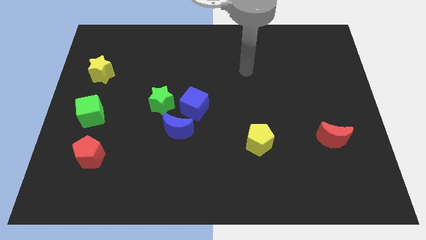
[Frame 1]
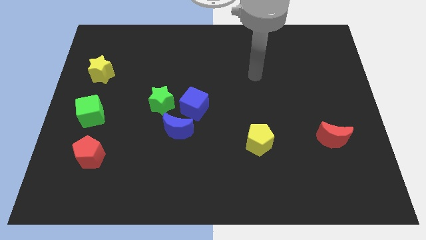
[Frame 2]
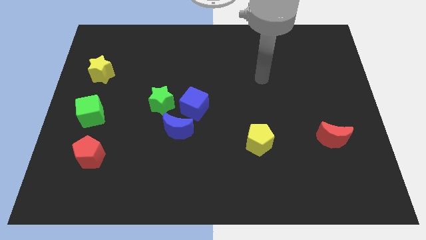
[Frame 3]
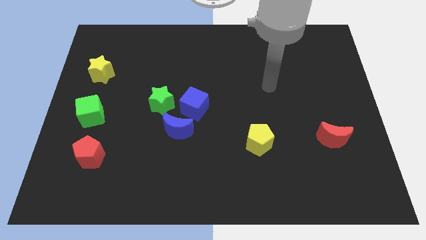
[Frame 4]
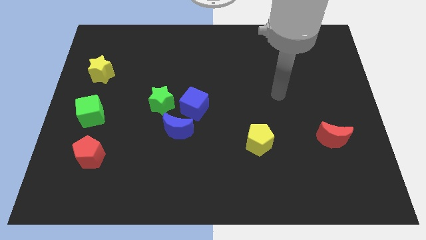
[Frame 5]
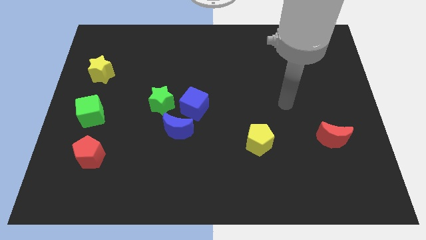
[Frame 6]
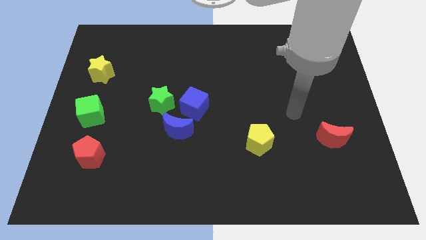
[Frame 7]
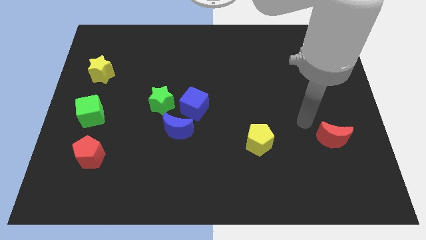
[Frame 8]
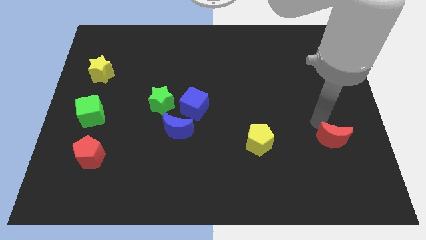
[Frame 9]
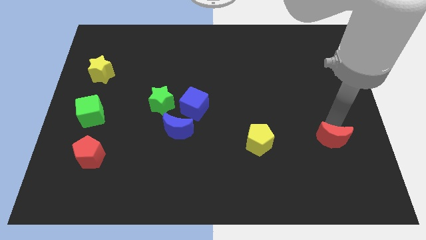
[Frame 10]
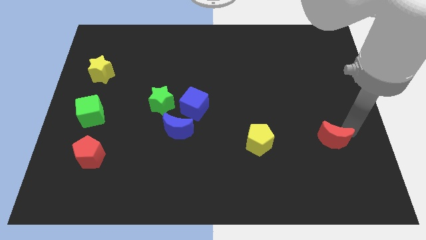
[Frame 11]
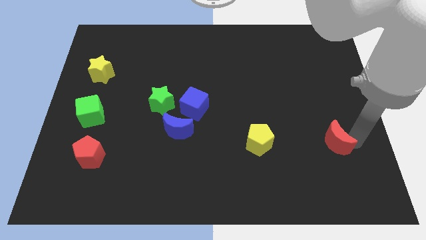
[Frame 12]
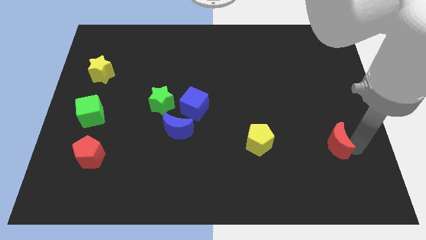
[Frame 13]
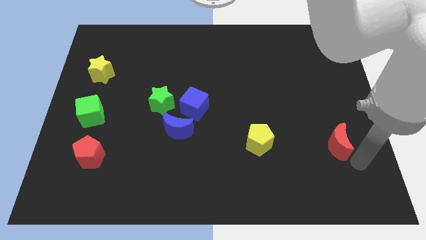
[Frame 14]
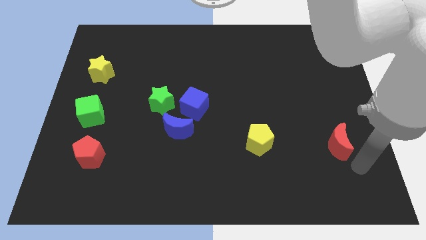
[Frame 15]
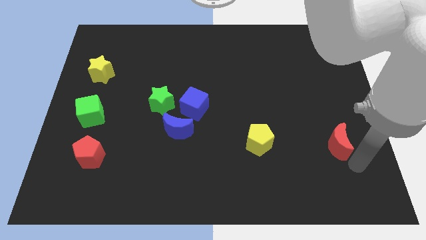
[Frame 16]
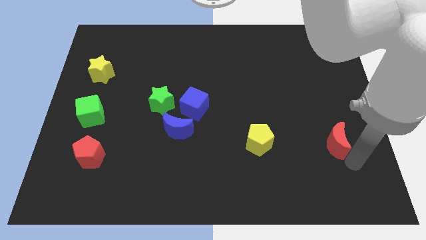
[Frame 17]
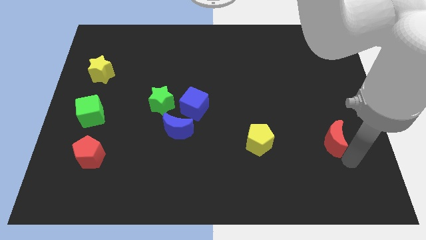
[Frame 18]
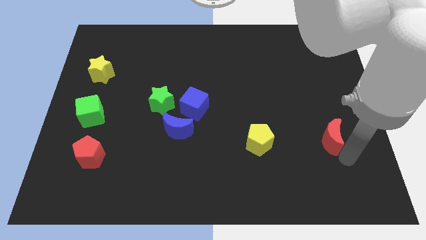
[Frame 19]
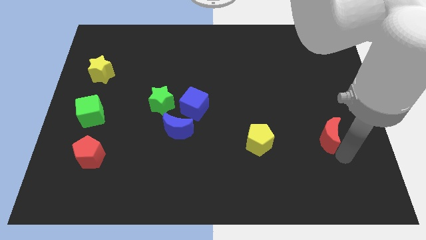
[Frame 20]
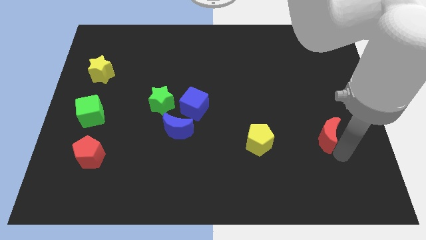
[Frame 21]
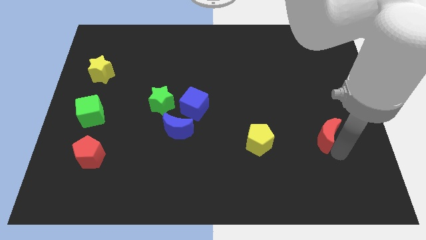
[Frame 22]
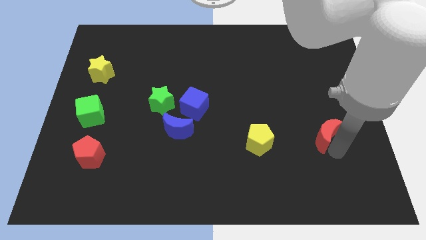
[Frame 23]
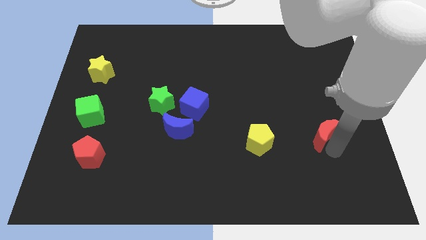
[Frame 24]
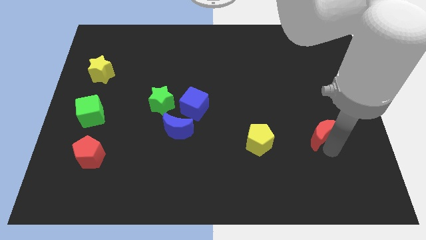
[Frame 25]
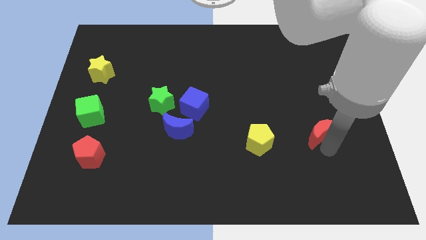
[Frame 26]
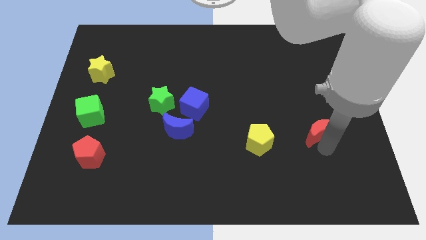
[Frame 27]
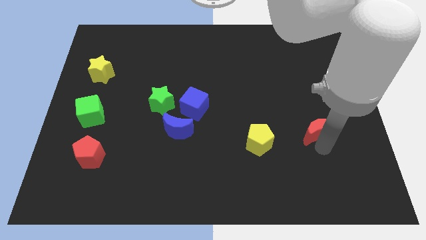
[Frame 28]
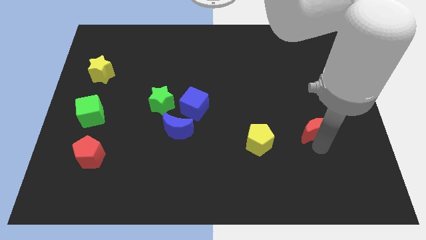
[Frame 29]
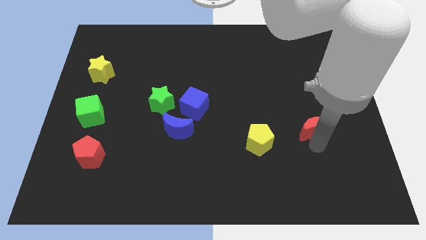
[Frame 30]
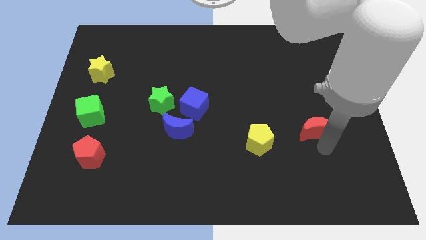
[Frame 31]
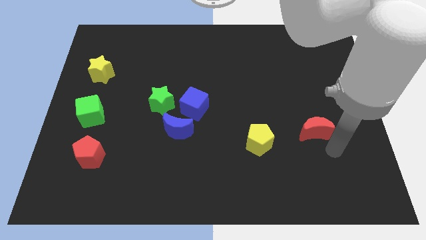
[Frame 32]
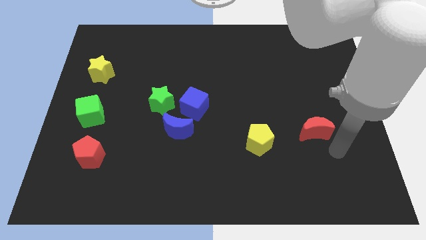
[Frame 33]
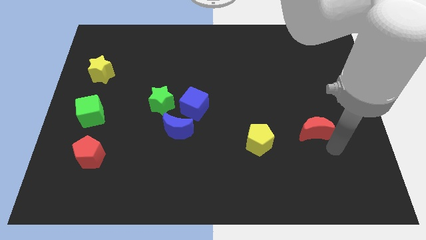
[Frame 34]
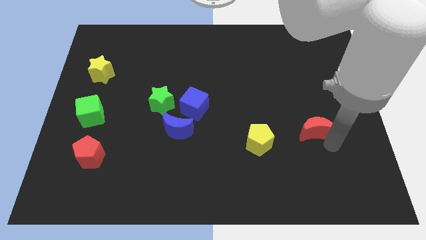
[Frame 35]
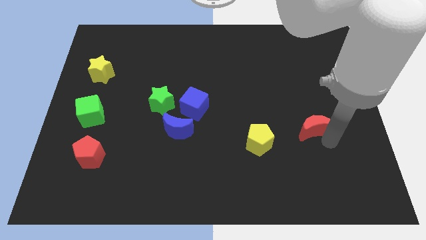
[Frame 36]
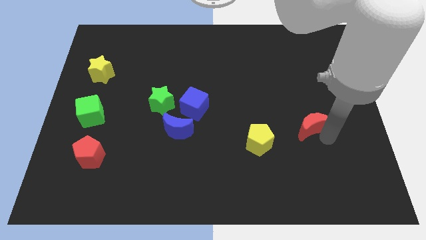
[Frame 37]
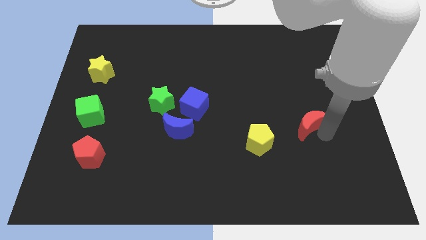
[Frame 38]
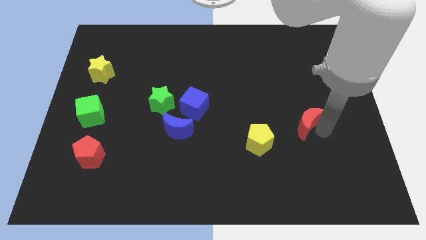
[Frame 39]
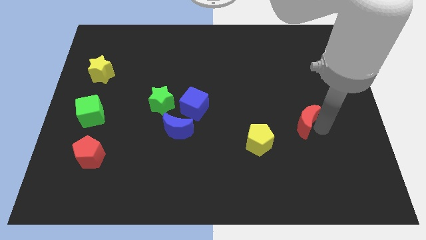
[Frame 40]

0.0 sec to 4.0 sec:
slide the red moon upwards and left diagonally a little bit

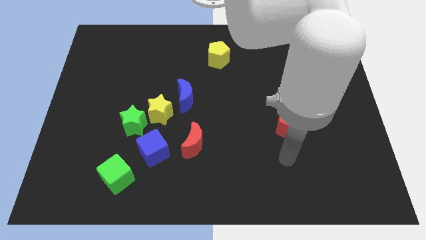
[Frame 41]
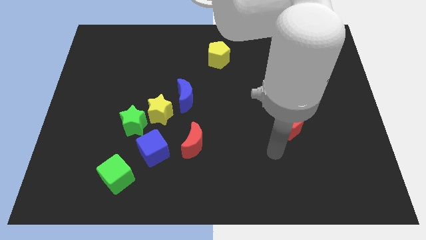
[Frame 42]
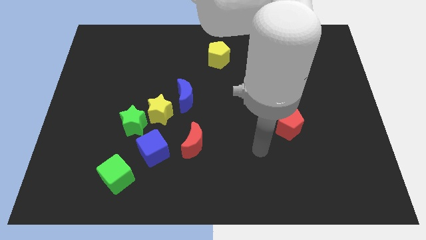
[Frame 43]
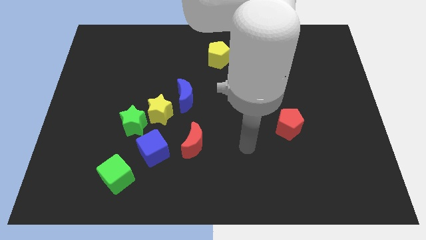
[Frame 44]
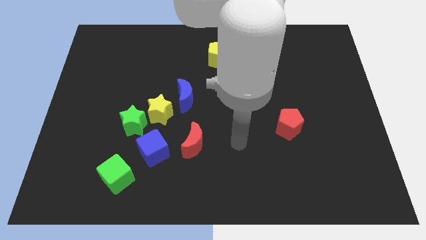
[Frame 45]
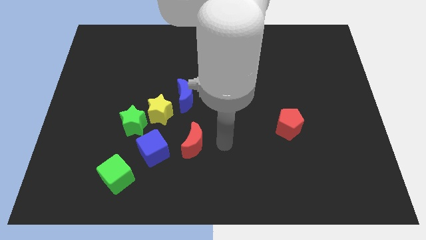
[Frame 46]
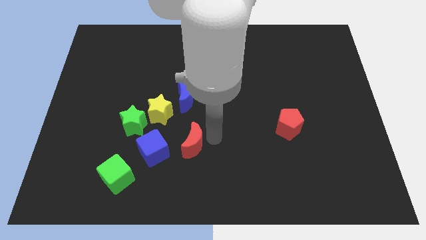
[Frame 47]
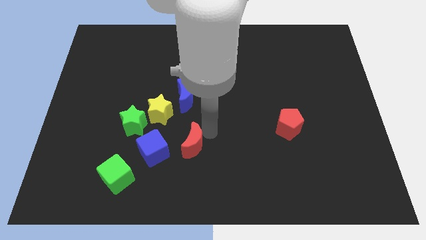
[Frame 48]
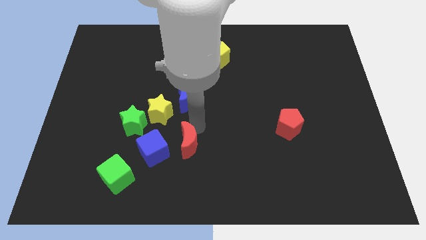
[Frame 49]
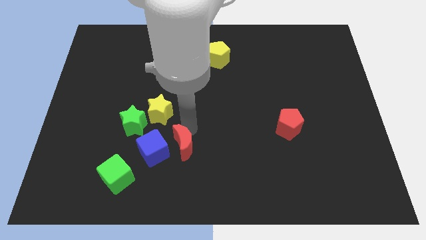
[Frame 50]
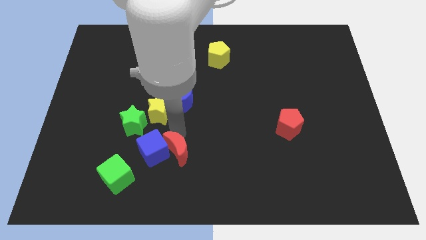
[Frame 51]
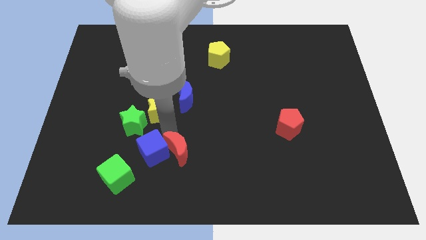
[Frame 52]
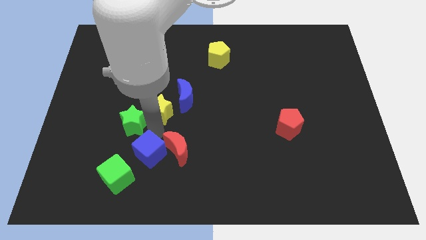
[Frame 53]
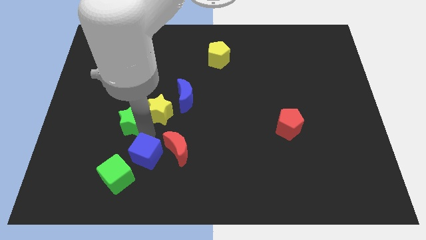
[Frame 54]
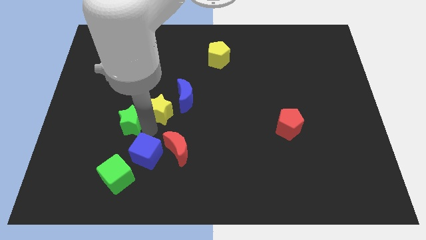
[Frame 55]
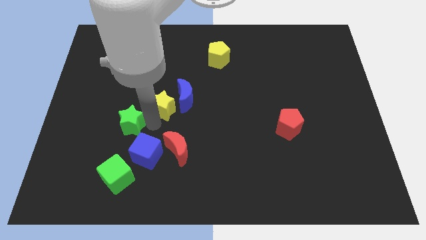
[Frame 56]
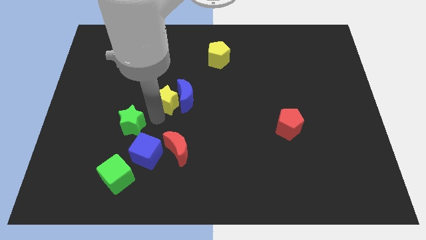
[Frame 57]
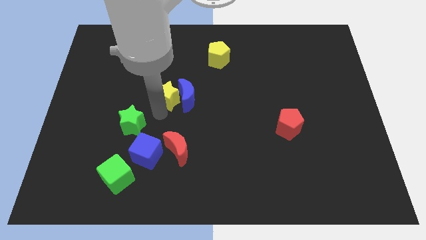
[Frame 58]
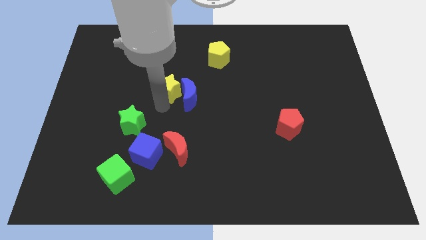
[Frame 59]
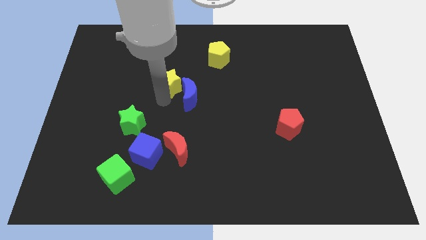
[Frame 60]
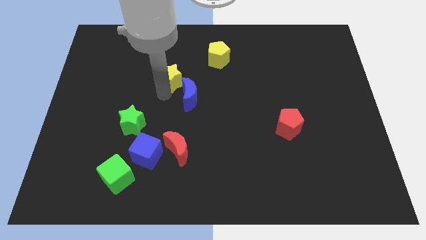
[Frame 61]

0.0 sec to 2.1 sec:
move the yellow star a little bit diagonally upwards and right

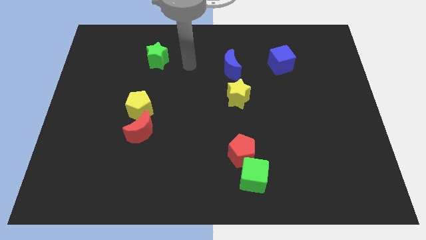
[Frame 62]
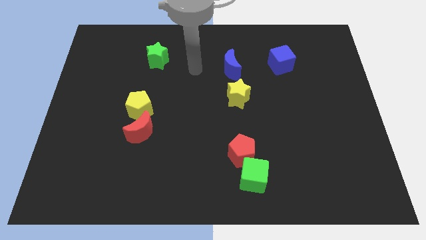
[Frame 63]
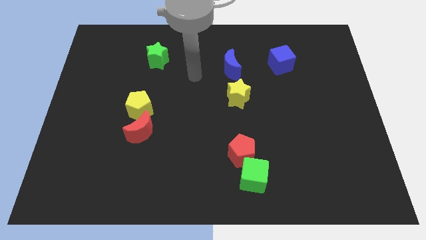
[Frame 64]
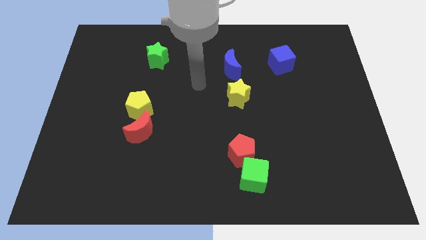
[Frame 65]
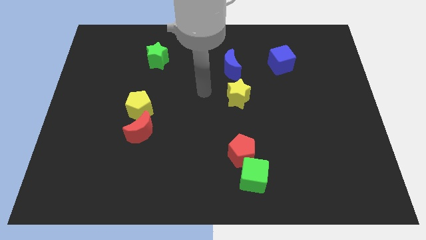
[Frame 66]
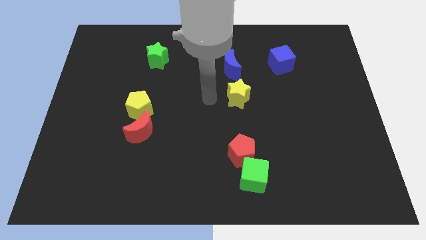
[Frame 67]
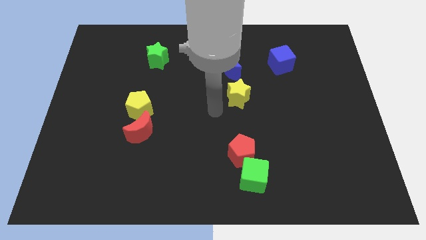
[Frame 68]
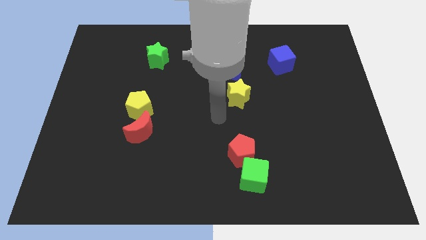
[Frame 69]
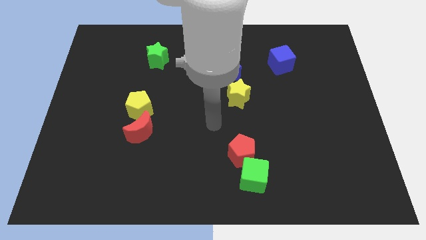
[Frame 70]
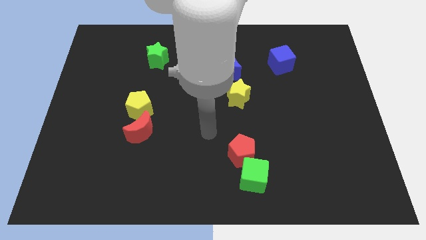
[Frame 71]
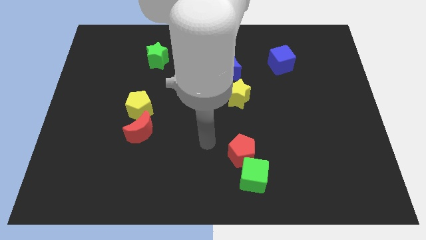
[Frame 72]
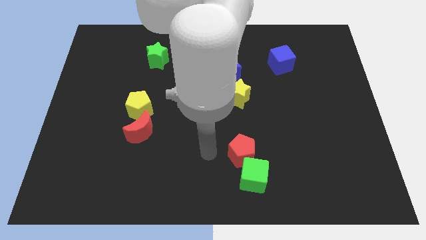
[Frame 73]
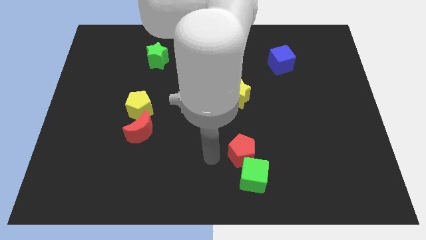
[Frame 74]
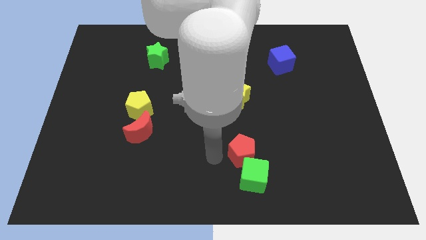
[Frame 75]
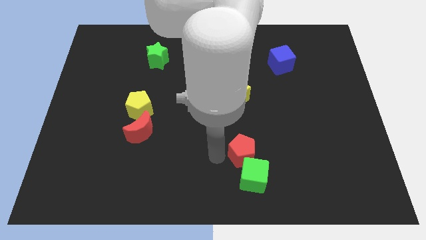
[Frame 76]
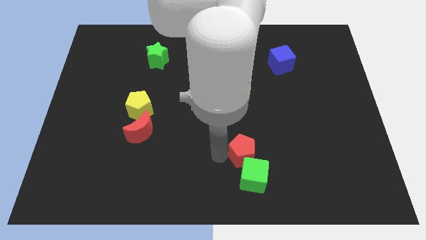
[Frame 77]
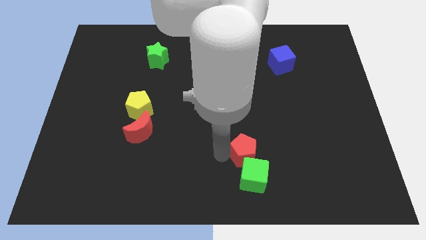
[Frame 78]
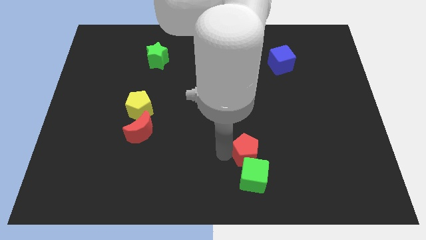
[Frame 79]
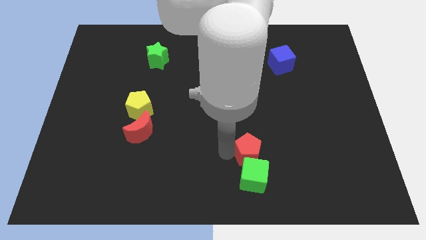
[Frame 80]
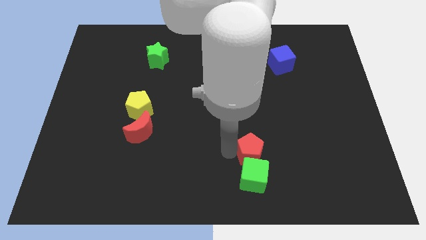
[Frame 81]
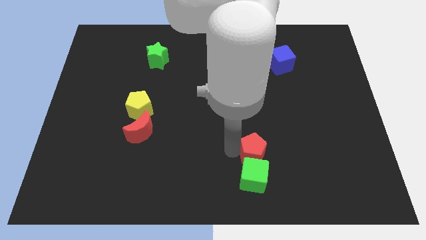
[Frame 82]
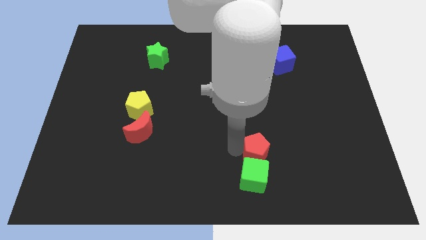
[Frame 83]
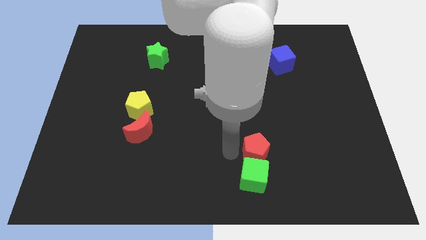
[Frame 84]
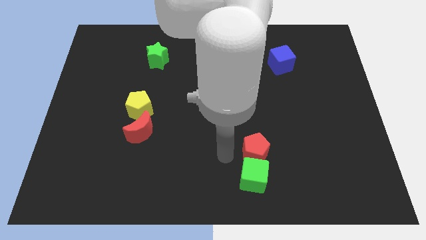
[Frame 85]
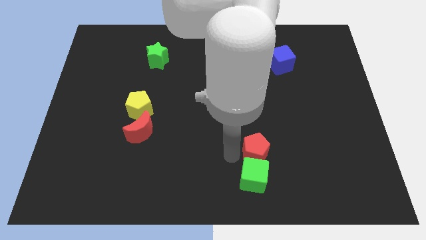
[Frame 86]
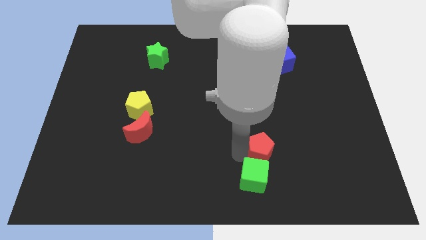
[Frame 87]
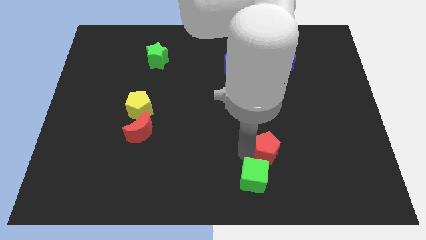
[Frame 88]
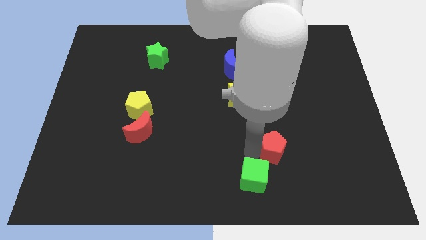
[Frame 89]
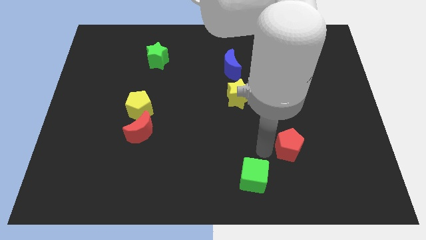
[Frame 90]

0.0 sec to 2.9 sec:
move the red pentagon to the right a little bit
